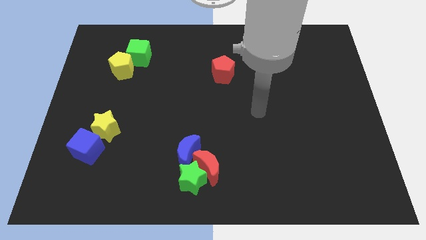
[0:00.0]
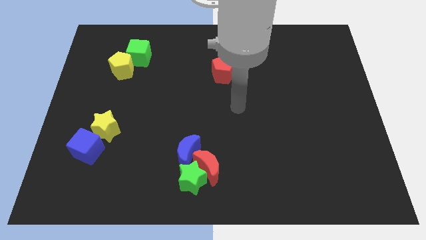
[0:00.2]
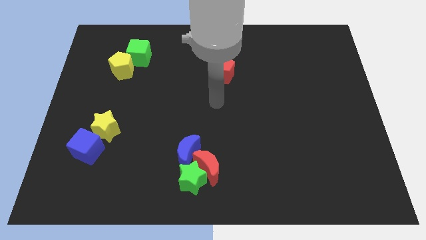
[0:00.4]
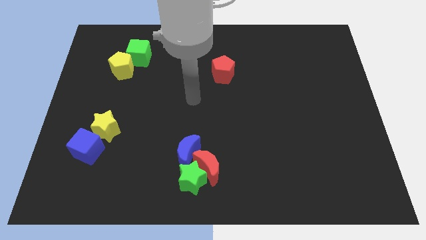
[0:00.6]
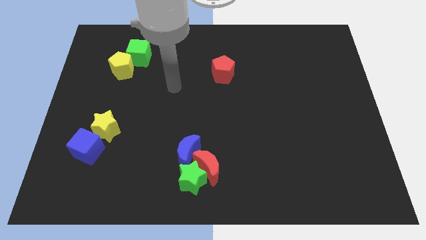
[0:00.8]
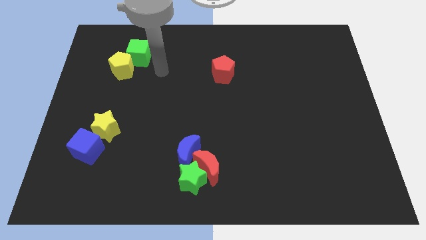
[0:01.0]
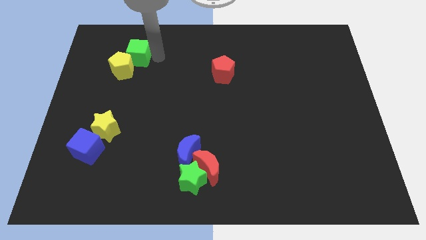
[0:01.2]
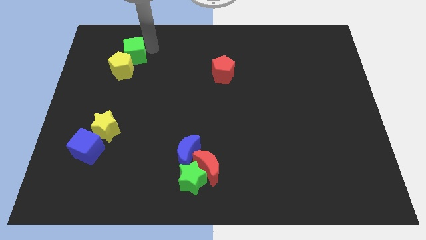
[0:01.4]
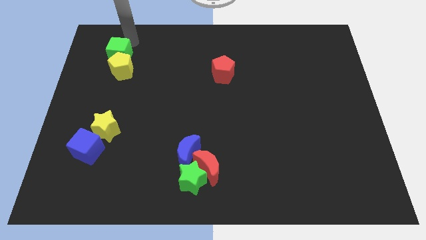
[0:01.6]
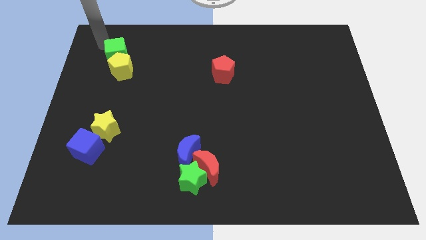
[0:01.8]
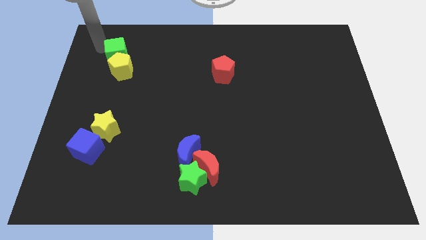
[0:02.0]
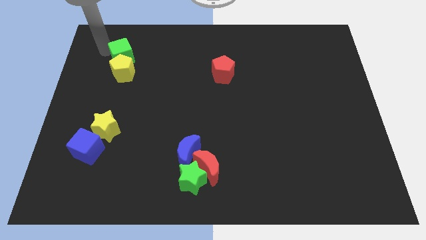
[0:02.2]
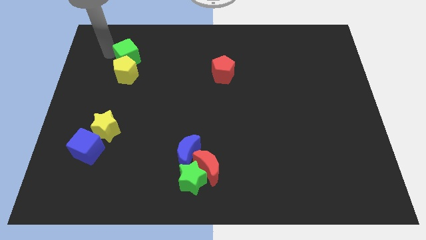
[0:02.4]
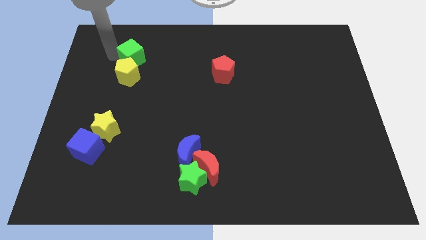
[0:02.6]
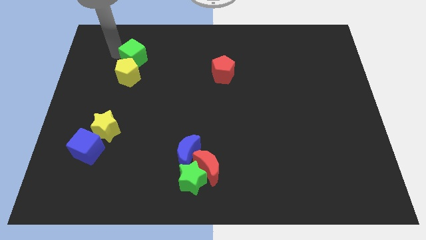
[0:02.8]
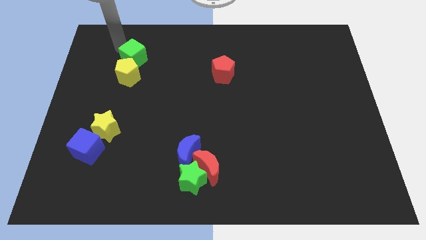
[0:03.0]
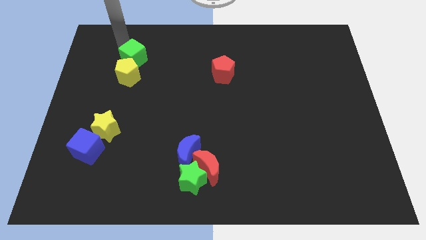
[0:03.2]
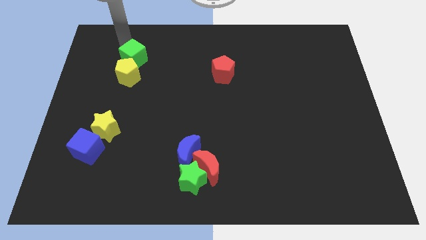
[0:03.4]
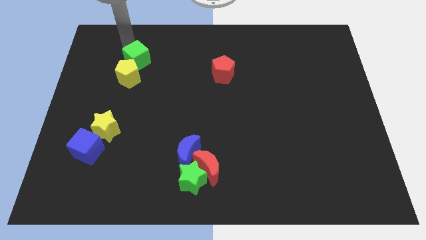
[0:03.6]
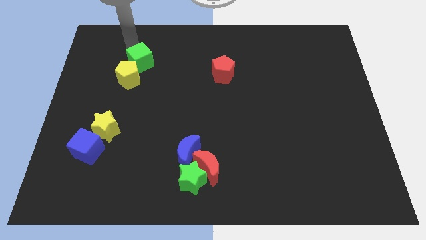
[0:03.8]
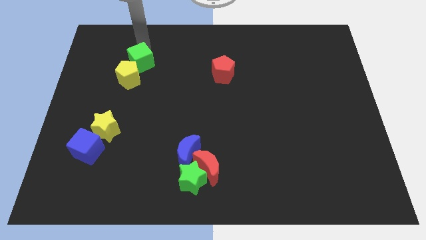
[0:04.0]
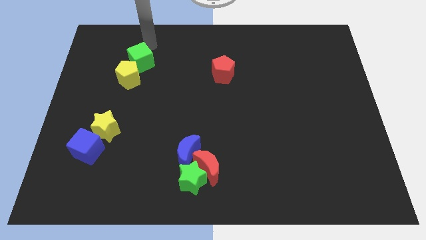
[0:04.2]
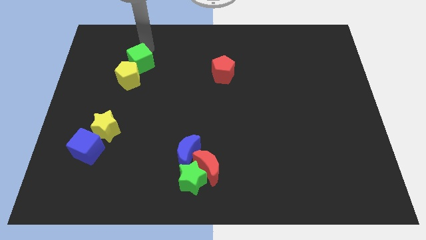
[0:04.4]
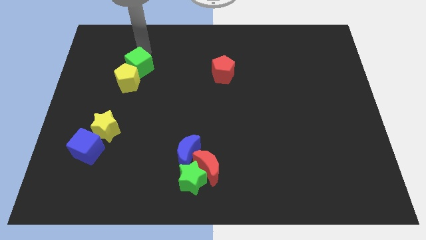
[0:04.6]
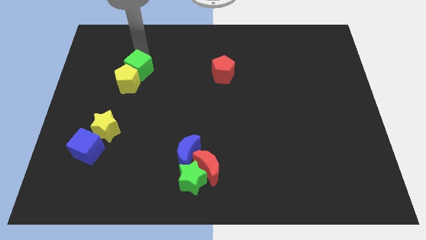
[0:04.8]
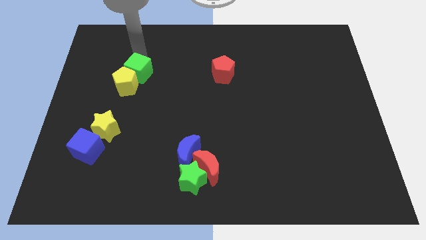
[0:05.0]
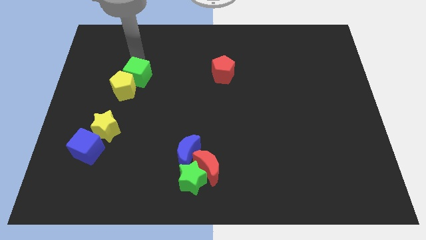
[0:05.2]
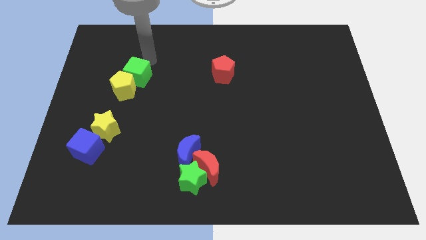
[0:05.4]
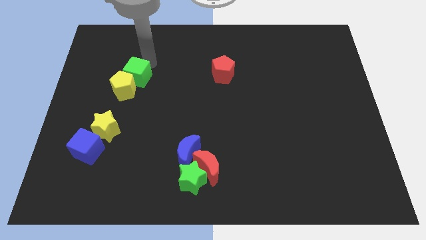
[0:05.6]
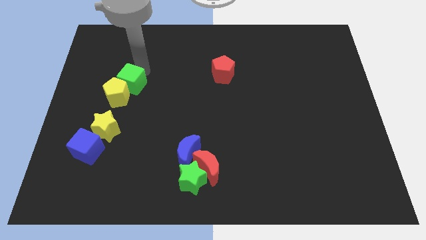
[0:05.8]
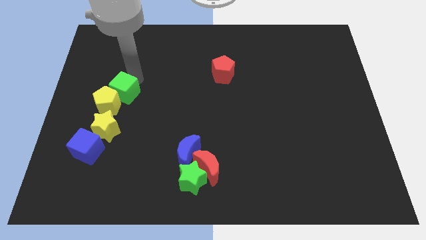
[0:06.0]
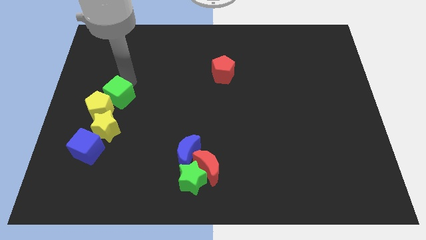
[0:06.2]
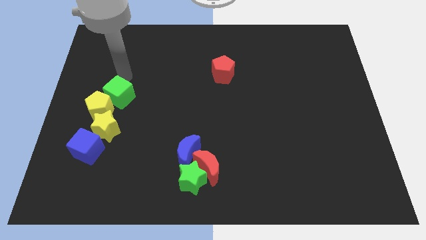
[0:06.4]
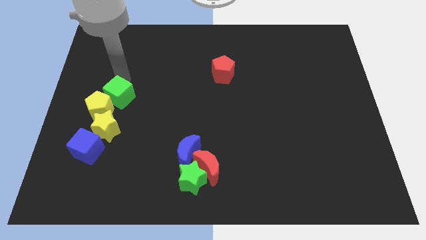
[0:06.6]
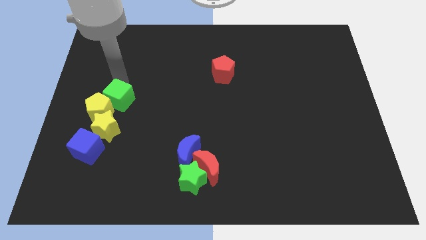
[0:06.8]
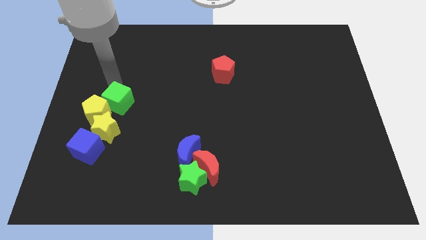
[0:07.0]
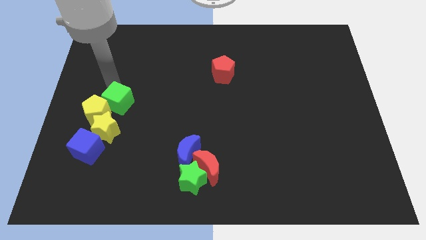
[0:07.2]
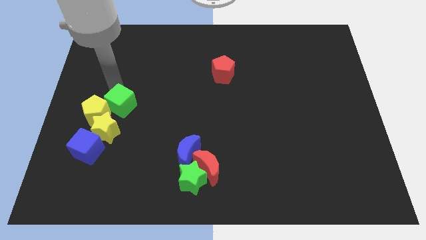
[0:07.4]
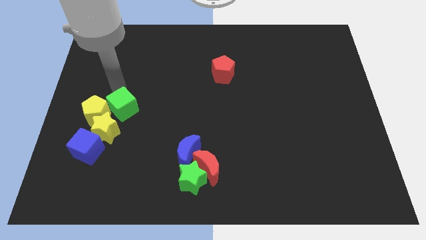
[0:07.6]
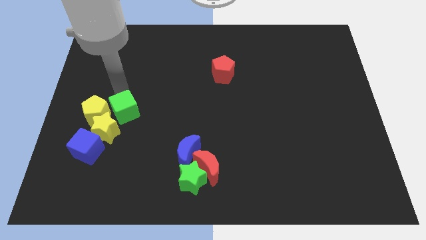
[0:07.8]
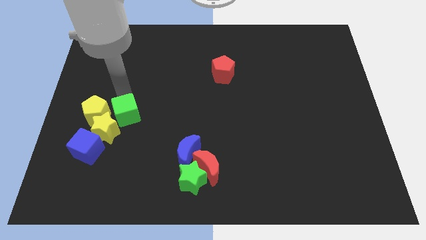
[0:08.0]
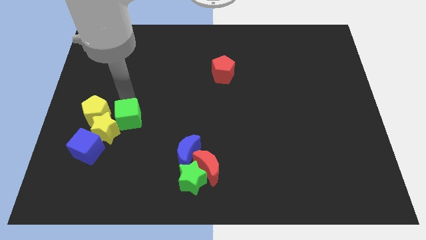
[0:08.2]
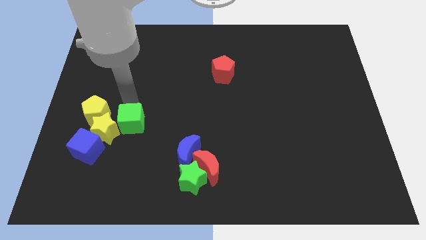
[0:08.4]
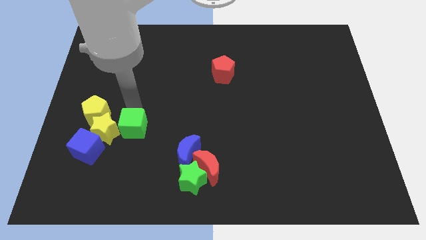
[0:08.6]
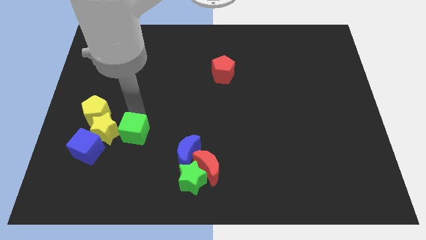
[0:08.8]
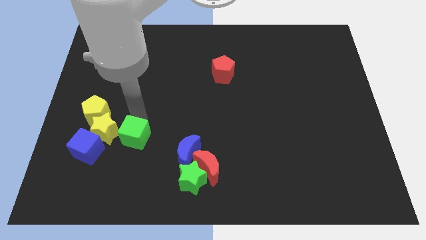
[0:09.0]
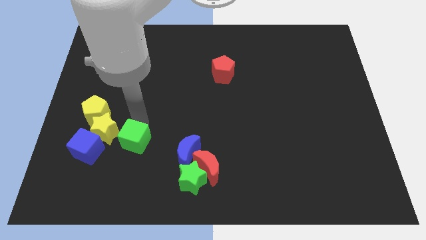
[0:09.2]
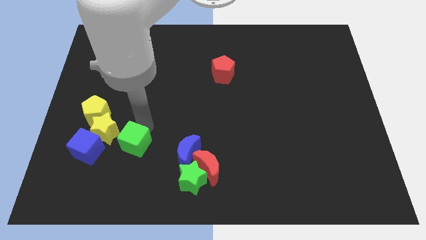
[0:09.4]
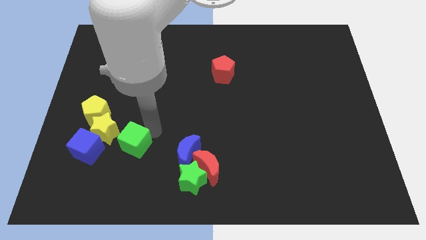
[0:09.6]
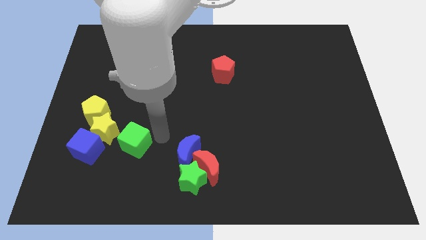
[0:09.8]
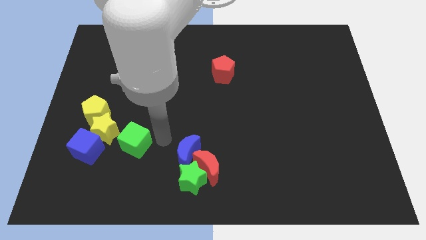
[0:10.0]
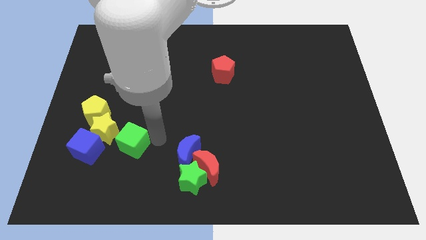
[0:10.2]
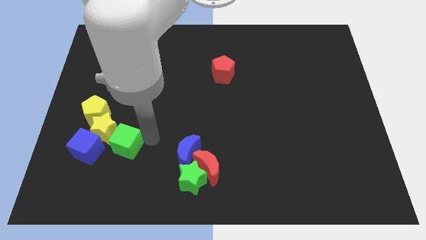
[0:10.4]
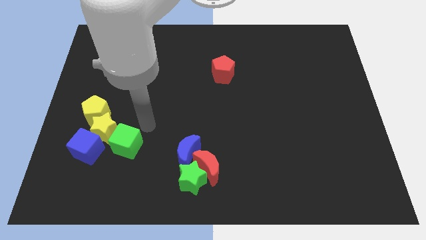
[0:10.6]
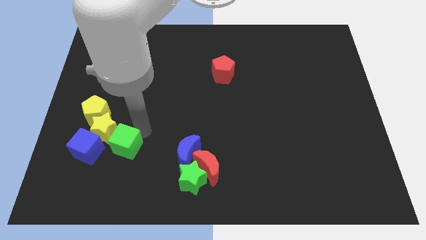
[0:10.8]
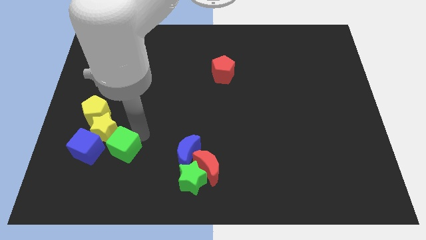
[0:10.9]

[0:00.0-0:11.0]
put the green cube below the yellow star

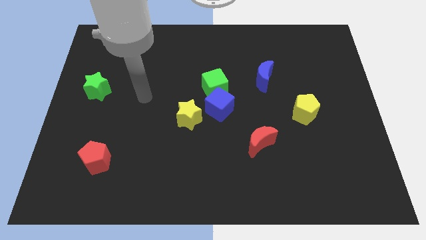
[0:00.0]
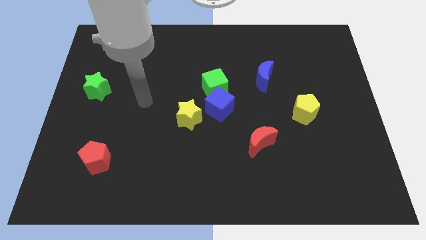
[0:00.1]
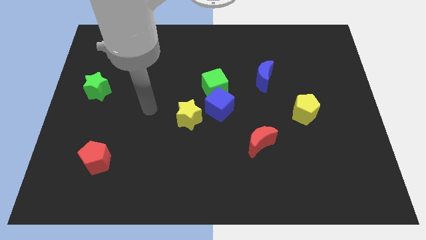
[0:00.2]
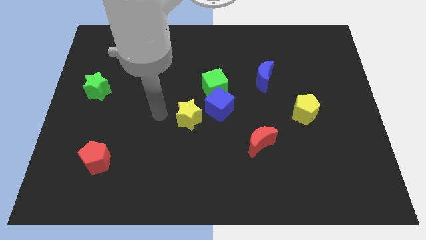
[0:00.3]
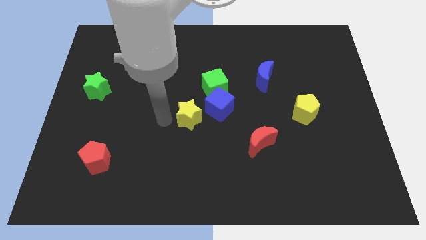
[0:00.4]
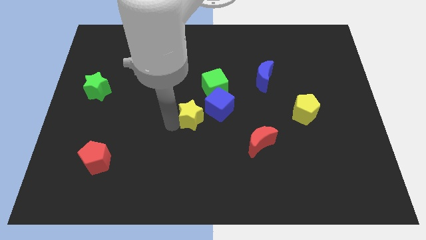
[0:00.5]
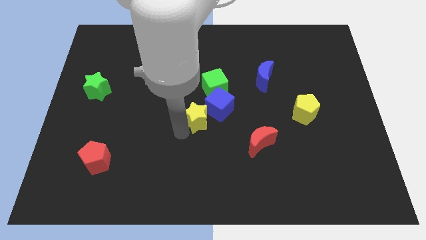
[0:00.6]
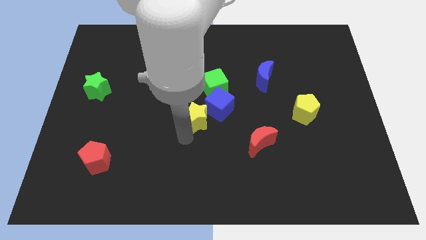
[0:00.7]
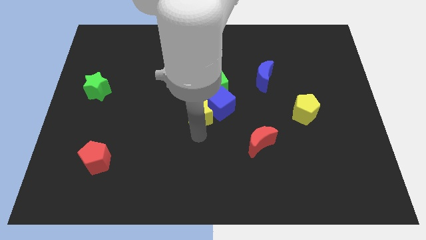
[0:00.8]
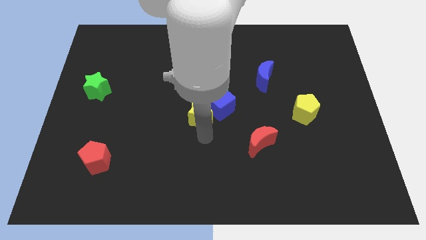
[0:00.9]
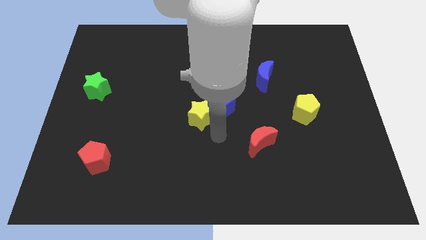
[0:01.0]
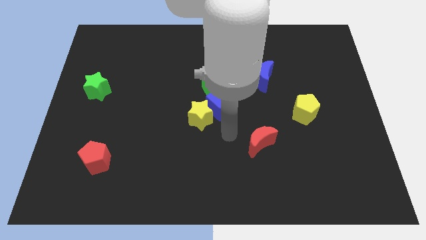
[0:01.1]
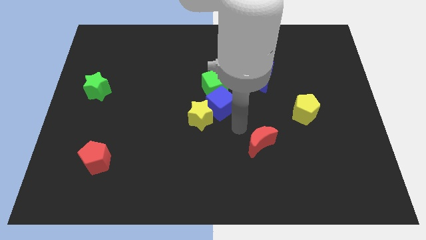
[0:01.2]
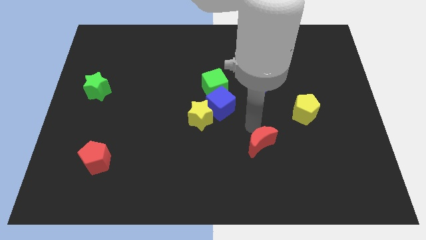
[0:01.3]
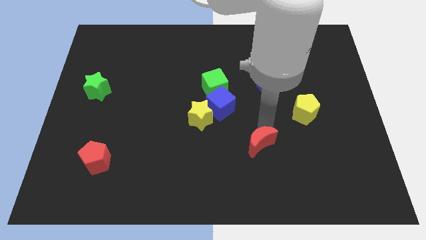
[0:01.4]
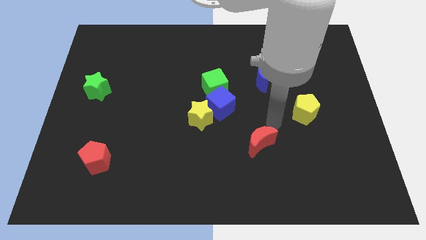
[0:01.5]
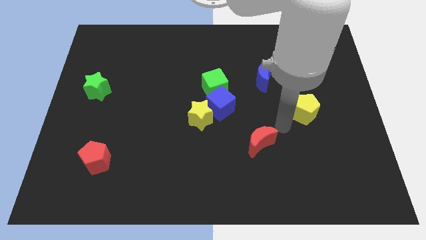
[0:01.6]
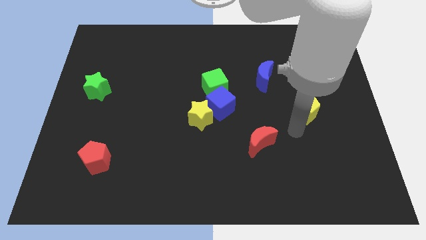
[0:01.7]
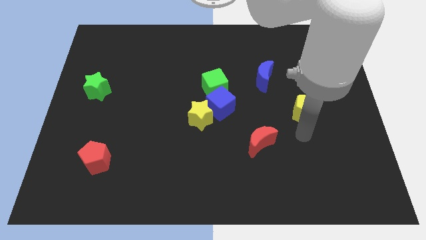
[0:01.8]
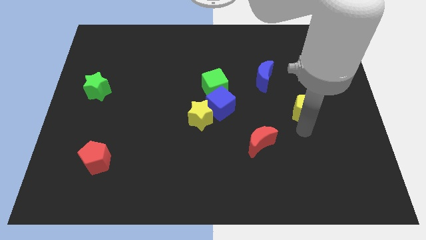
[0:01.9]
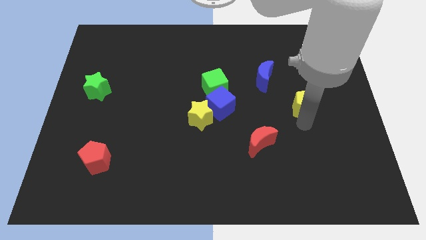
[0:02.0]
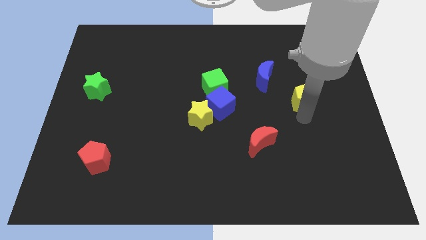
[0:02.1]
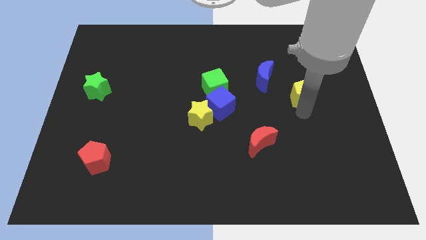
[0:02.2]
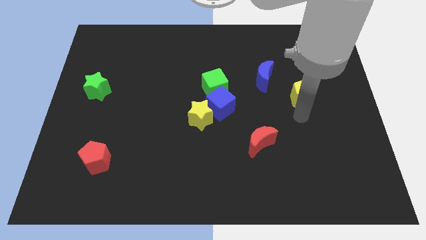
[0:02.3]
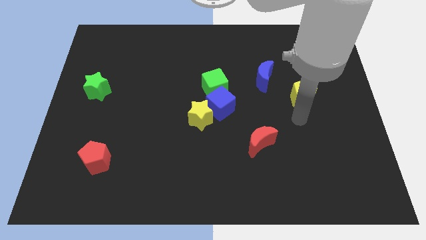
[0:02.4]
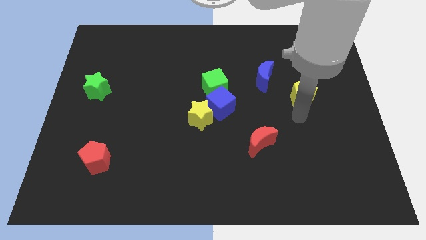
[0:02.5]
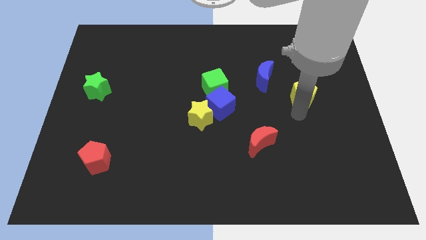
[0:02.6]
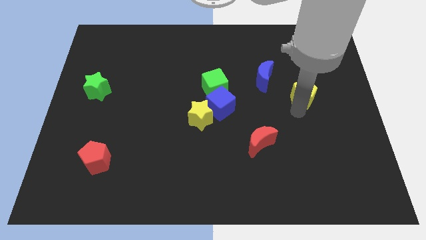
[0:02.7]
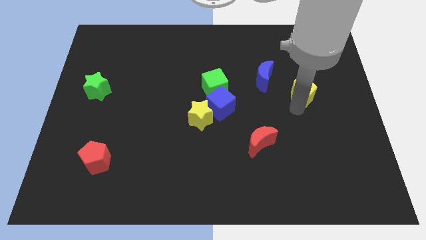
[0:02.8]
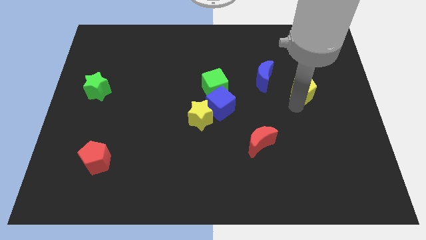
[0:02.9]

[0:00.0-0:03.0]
push the yellow pentagon to the right side of the blue moon
